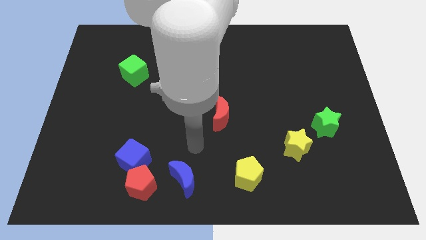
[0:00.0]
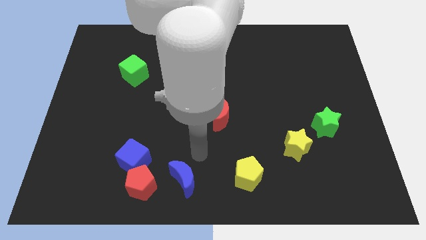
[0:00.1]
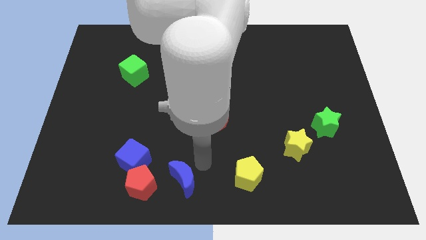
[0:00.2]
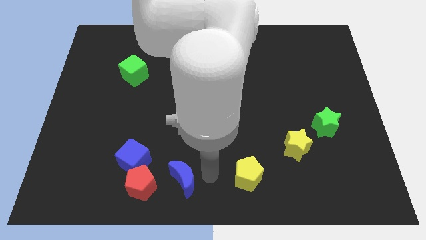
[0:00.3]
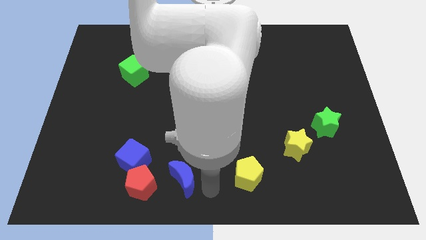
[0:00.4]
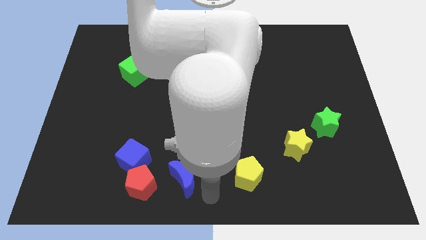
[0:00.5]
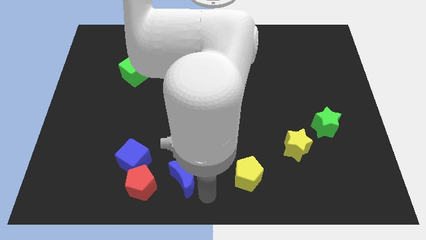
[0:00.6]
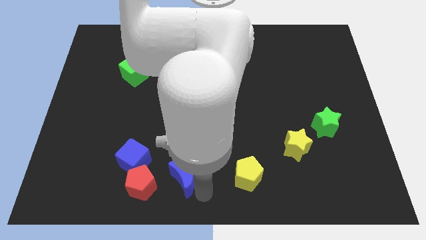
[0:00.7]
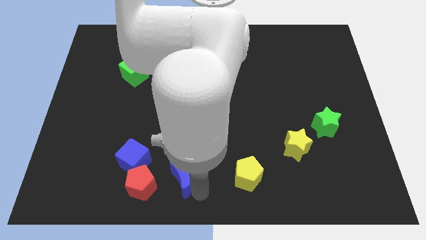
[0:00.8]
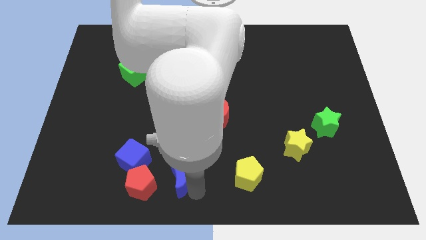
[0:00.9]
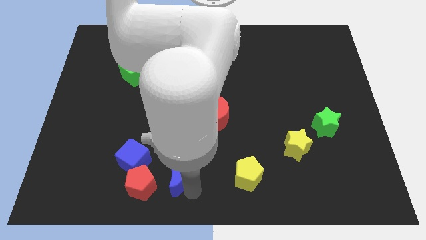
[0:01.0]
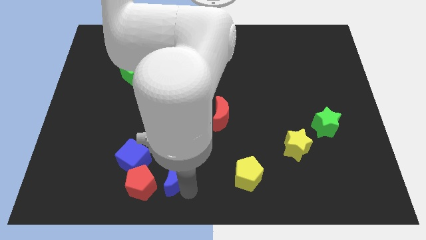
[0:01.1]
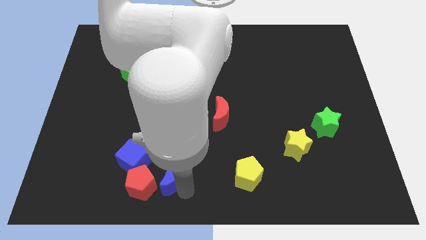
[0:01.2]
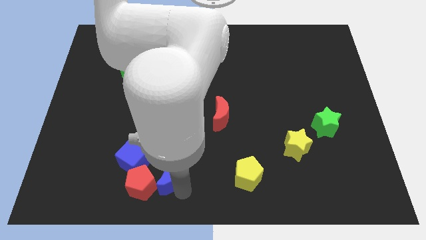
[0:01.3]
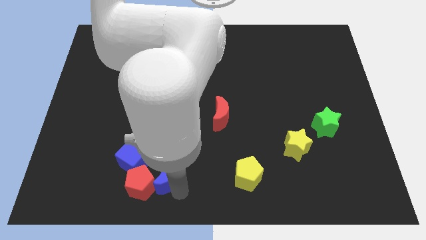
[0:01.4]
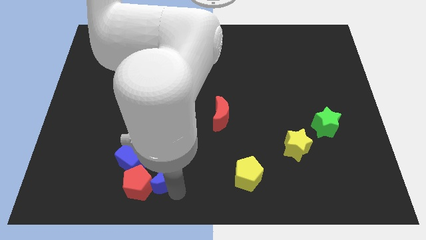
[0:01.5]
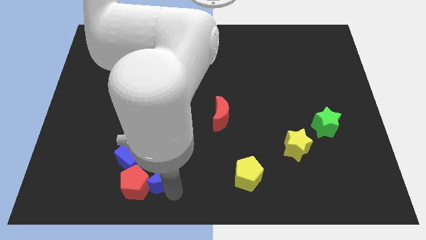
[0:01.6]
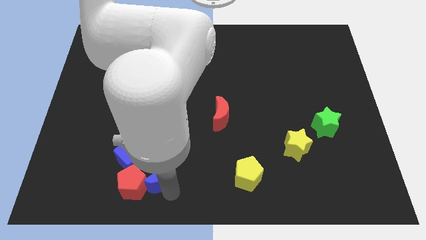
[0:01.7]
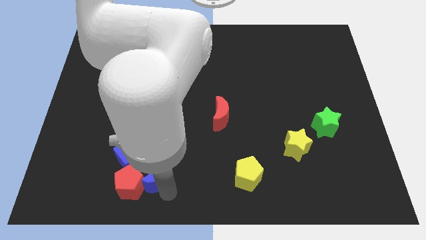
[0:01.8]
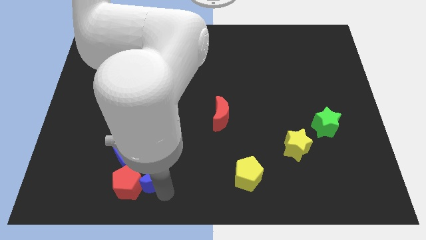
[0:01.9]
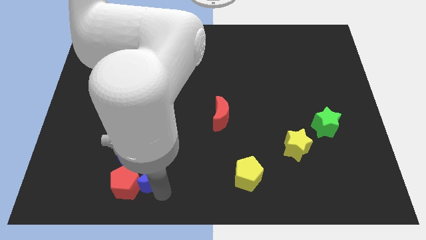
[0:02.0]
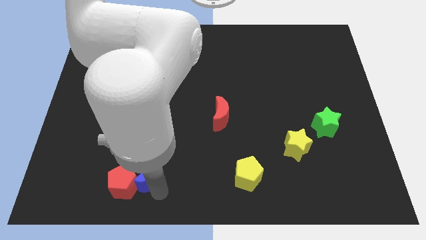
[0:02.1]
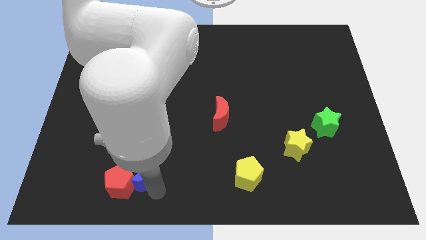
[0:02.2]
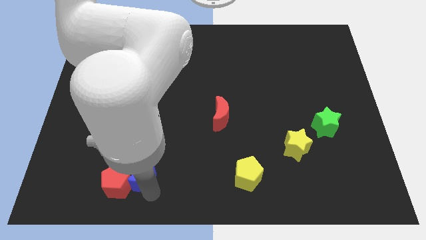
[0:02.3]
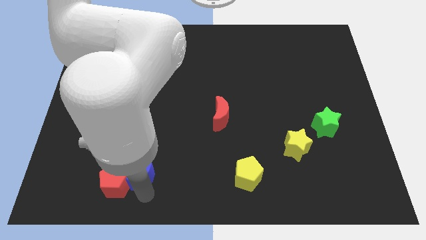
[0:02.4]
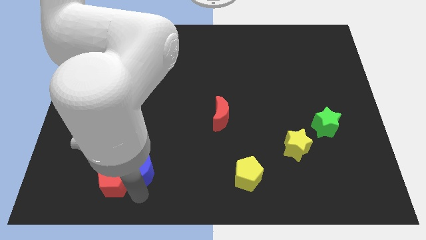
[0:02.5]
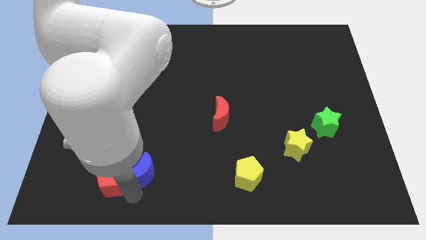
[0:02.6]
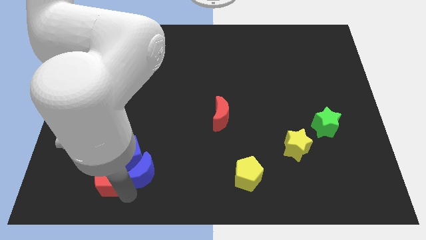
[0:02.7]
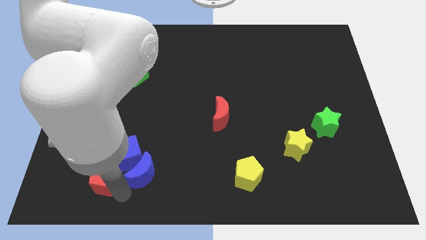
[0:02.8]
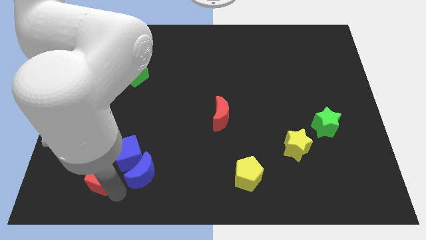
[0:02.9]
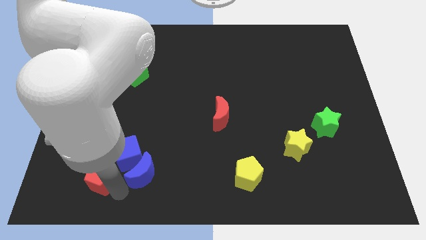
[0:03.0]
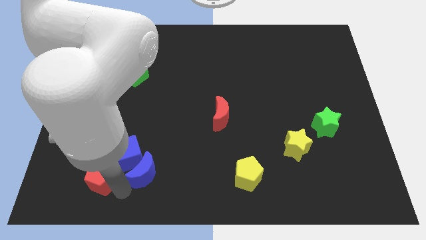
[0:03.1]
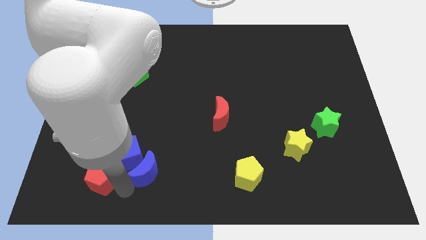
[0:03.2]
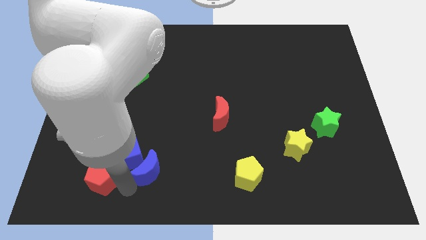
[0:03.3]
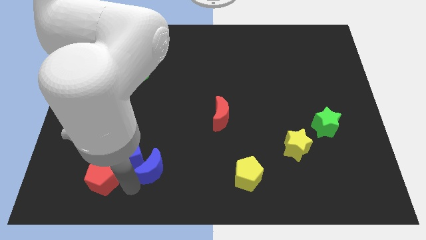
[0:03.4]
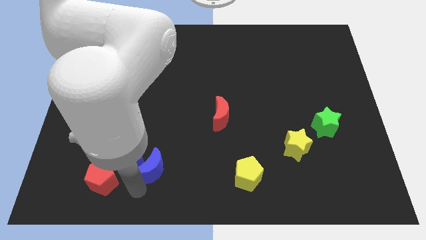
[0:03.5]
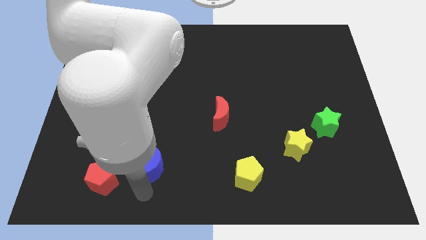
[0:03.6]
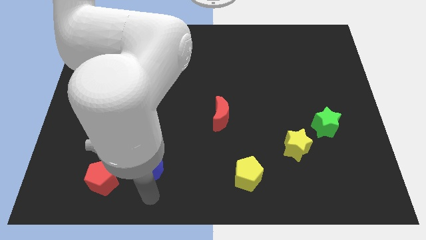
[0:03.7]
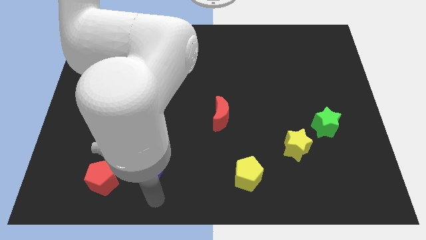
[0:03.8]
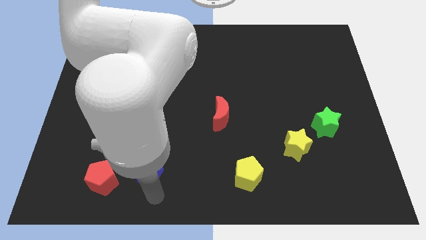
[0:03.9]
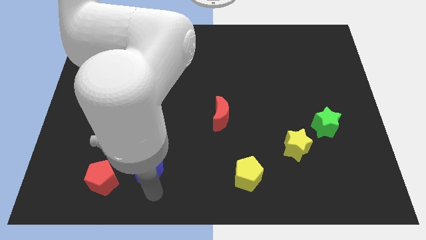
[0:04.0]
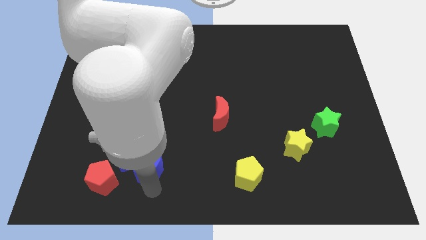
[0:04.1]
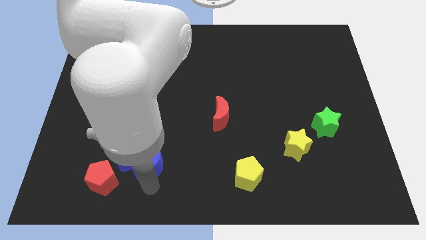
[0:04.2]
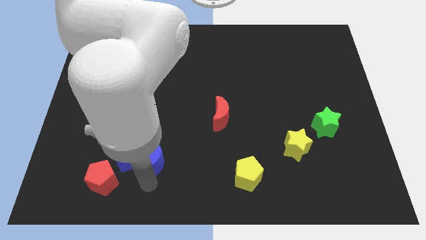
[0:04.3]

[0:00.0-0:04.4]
slide the blue moon diagonally up and left a little

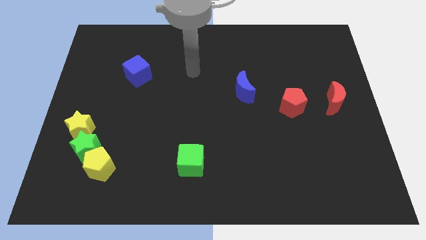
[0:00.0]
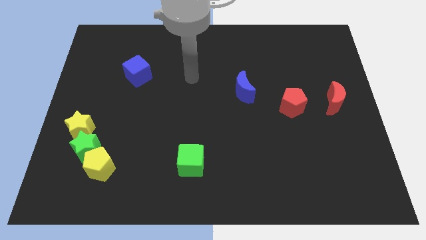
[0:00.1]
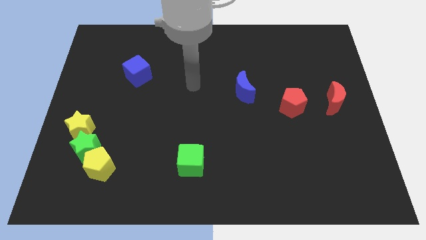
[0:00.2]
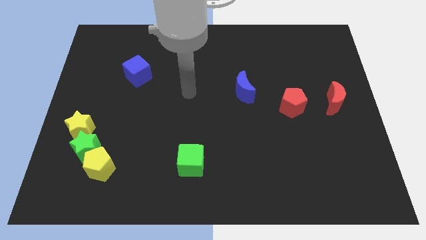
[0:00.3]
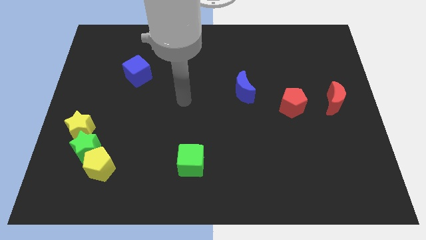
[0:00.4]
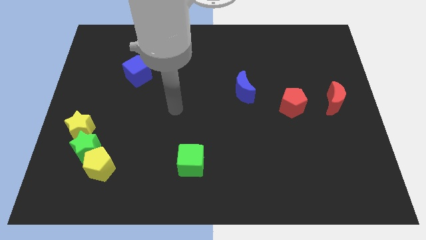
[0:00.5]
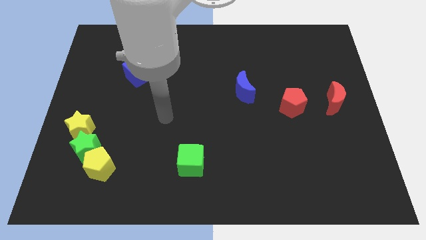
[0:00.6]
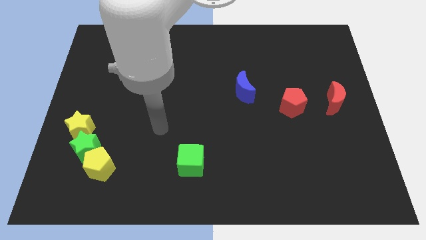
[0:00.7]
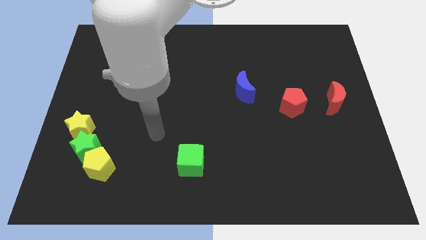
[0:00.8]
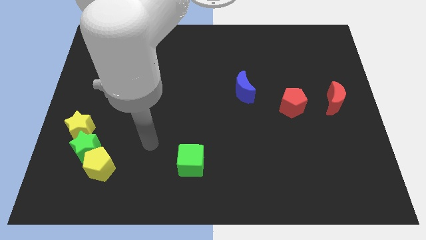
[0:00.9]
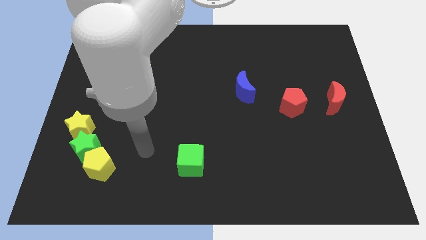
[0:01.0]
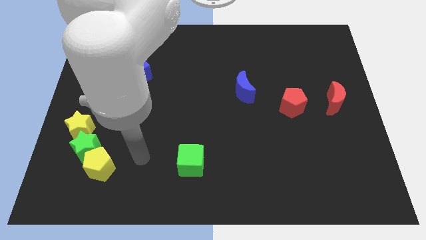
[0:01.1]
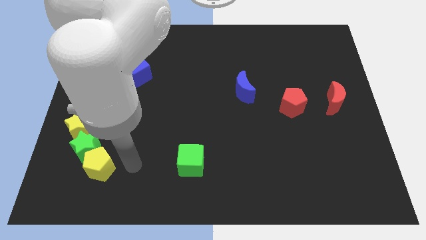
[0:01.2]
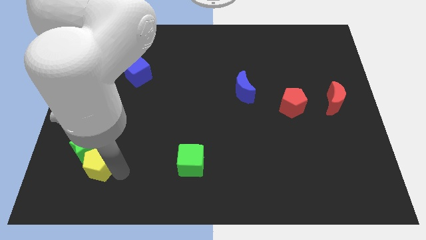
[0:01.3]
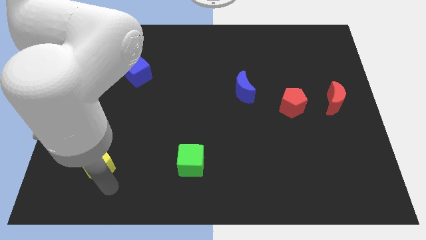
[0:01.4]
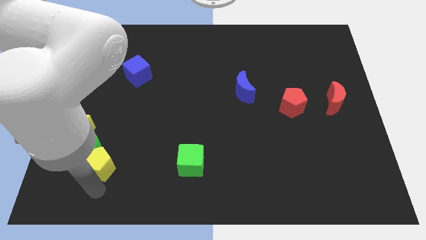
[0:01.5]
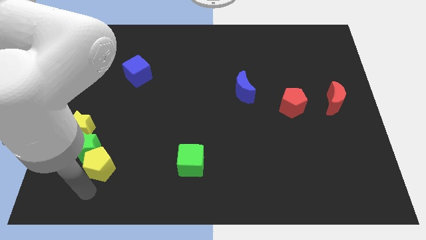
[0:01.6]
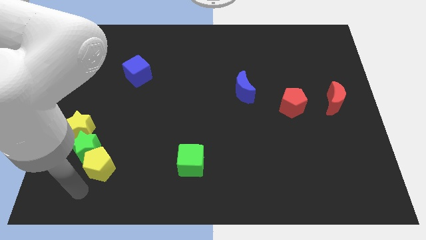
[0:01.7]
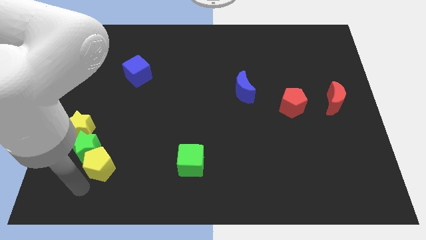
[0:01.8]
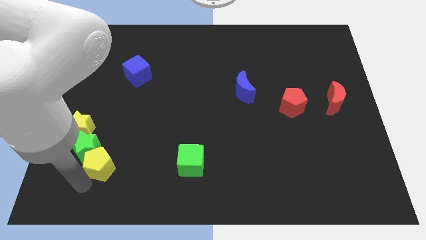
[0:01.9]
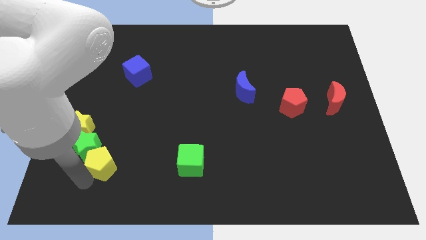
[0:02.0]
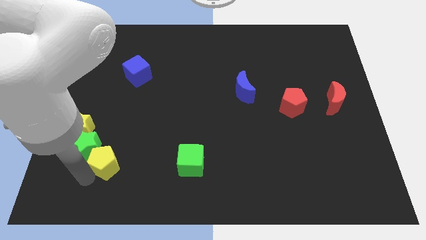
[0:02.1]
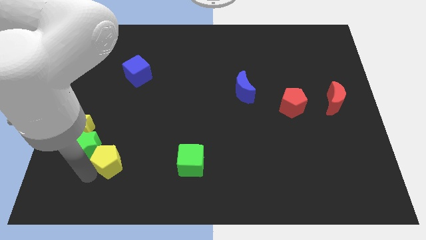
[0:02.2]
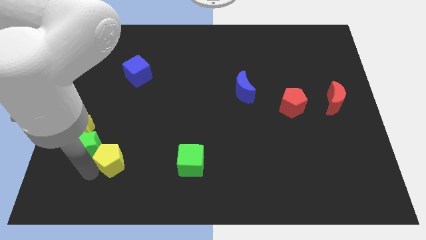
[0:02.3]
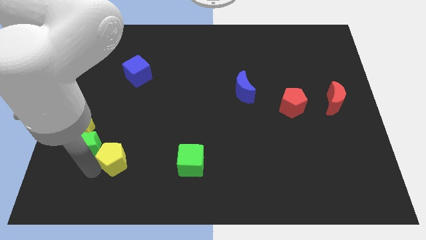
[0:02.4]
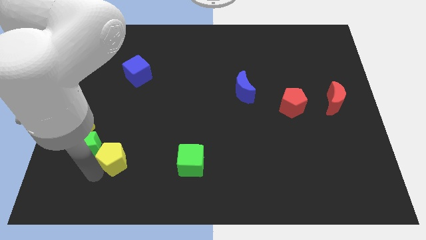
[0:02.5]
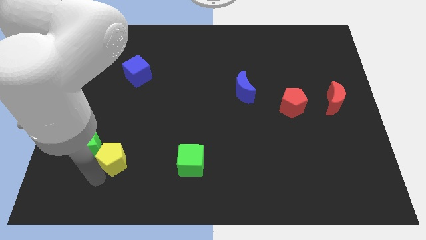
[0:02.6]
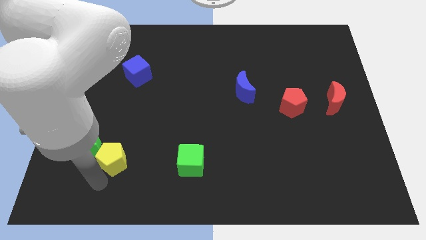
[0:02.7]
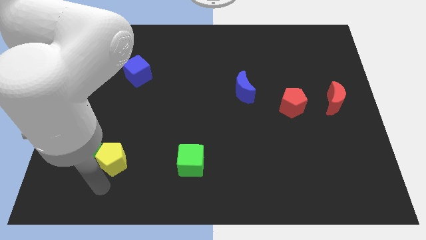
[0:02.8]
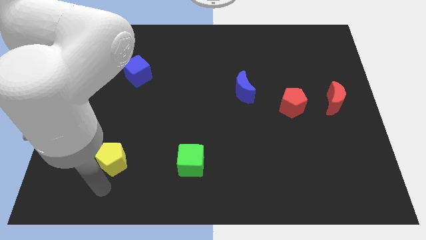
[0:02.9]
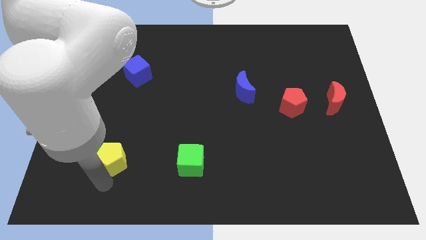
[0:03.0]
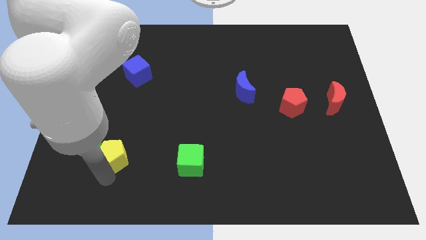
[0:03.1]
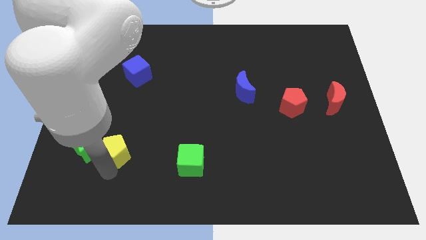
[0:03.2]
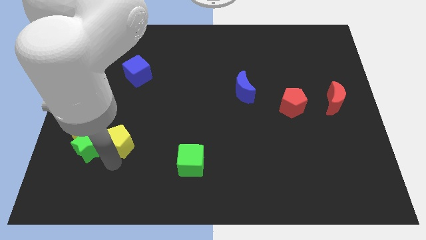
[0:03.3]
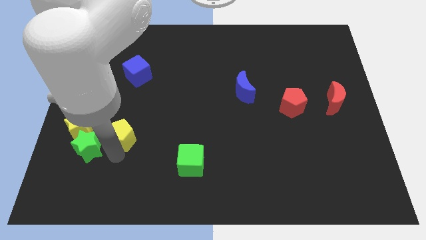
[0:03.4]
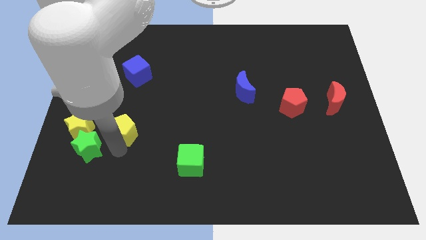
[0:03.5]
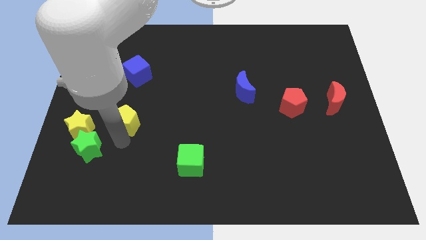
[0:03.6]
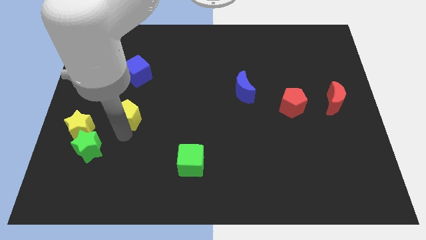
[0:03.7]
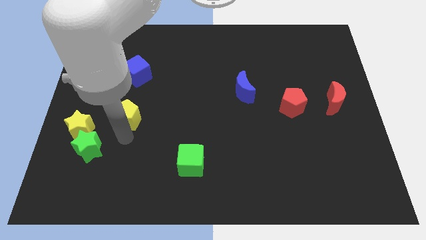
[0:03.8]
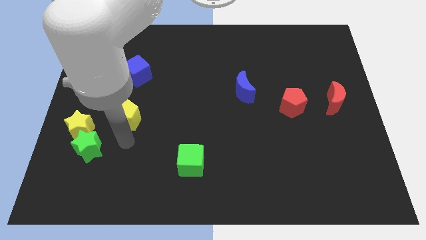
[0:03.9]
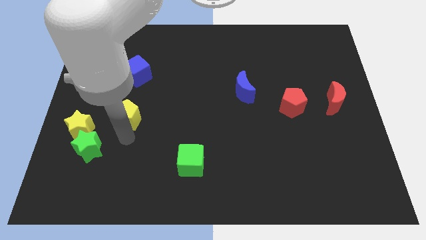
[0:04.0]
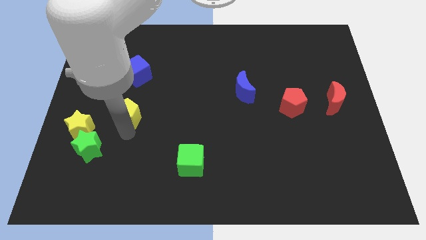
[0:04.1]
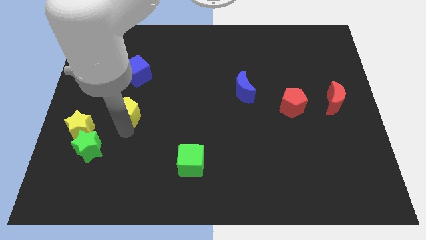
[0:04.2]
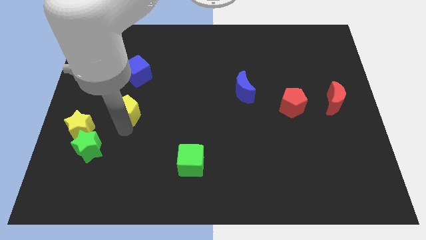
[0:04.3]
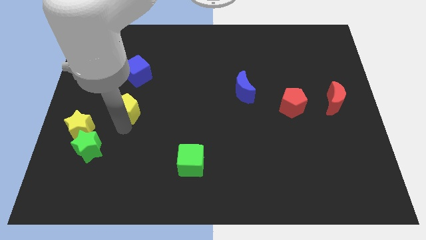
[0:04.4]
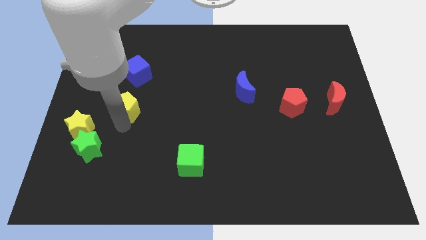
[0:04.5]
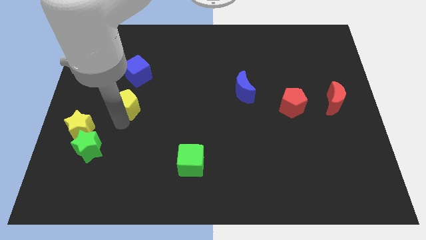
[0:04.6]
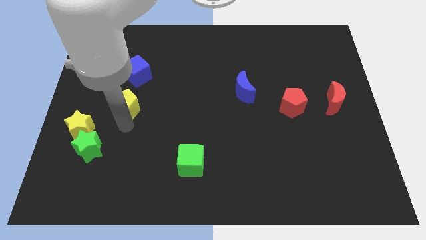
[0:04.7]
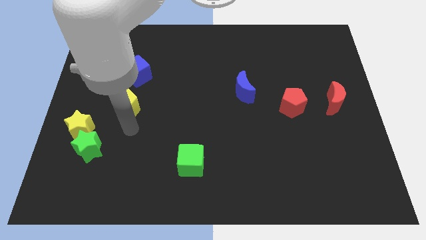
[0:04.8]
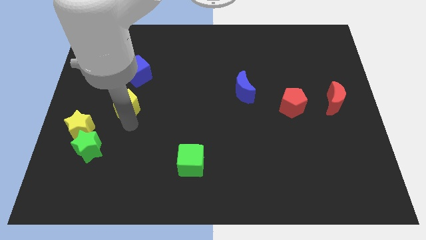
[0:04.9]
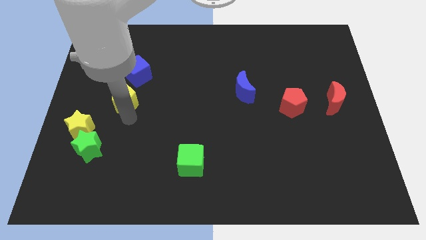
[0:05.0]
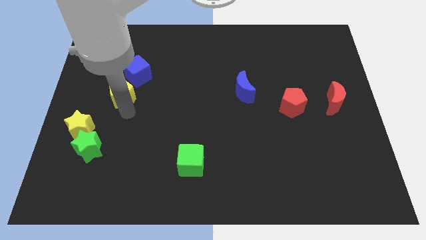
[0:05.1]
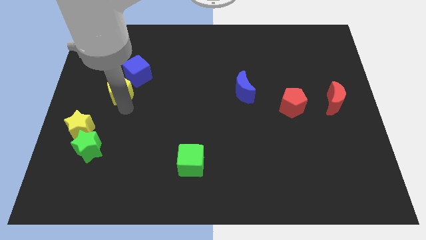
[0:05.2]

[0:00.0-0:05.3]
slide the yellow pentagon upwards
